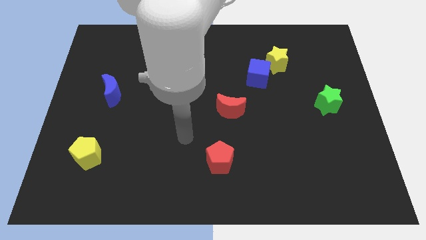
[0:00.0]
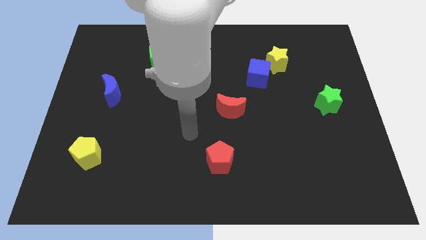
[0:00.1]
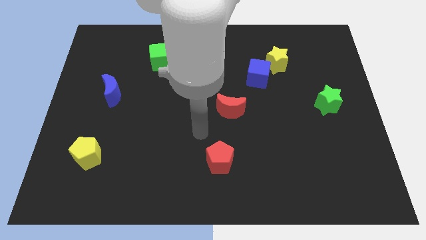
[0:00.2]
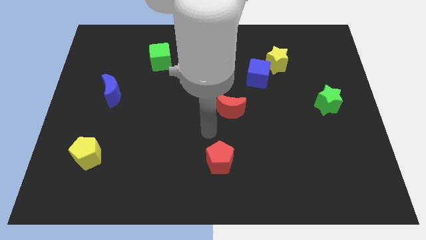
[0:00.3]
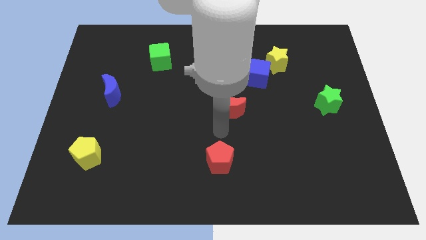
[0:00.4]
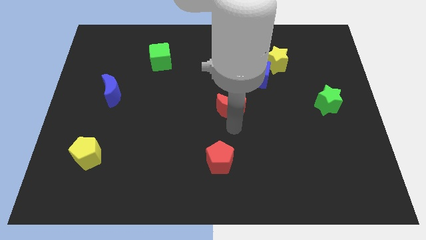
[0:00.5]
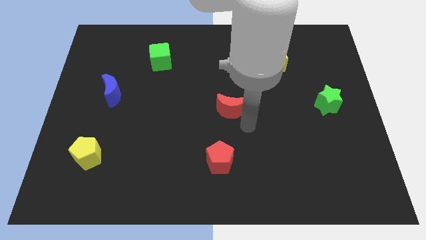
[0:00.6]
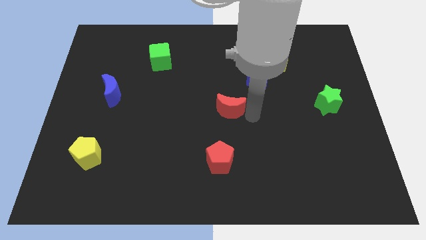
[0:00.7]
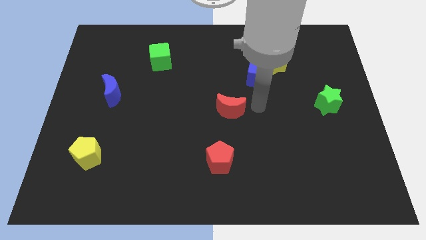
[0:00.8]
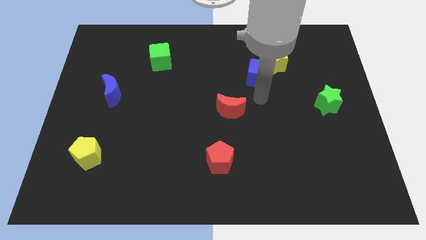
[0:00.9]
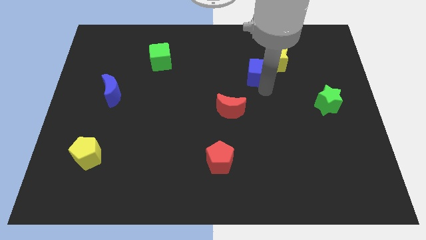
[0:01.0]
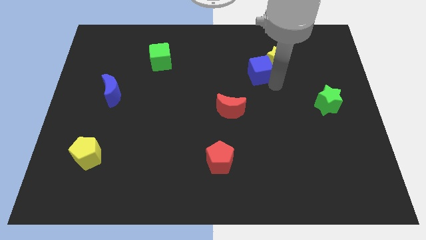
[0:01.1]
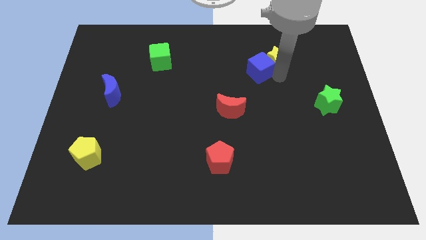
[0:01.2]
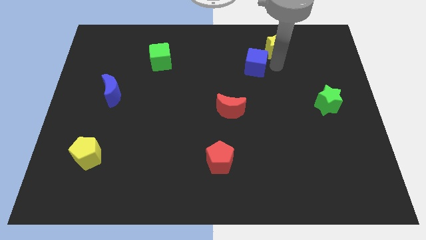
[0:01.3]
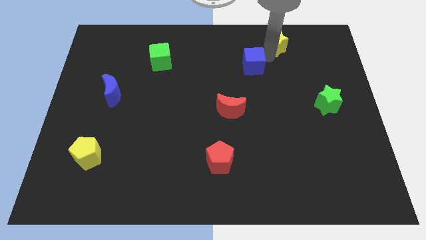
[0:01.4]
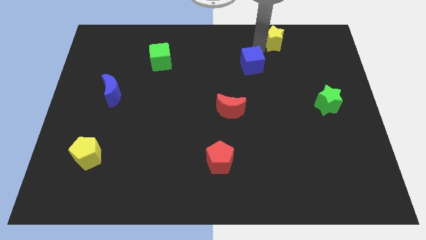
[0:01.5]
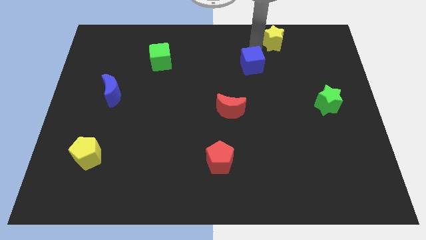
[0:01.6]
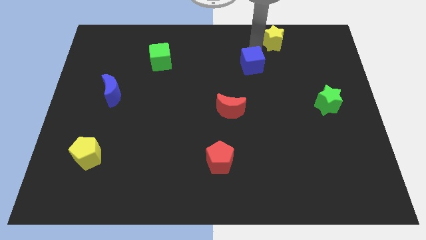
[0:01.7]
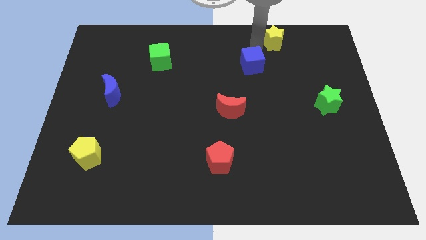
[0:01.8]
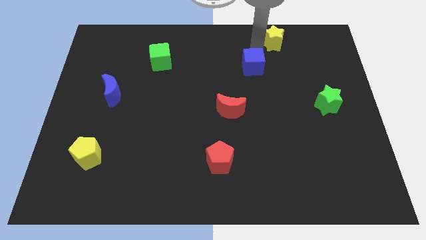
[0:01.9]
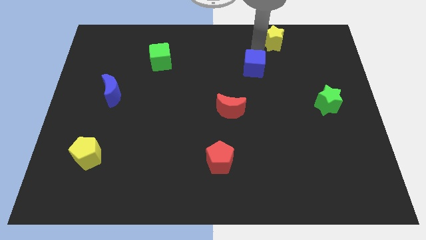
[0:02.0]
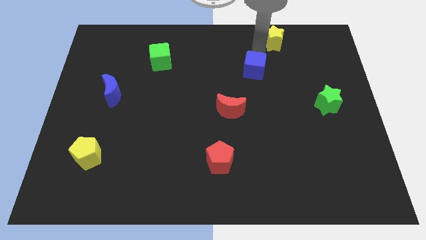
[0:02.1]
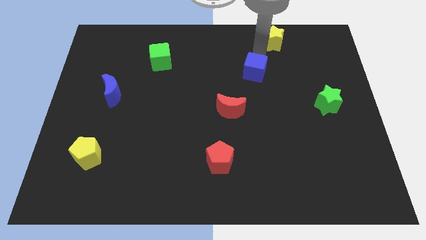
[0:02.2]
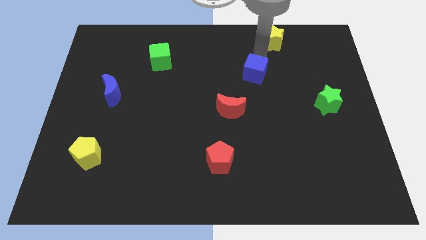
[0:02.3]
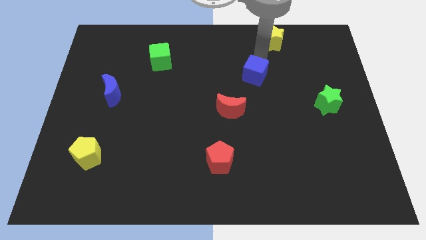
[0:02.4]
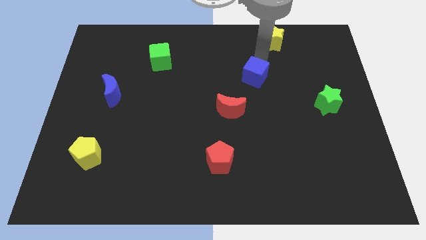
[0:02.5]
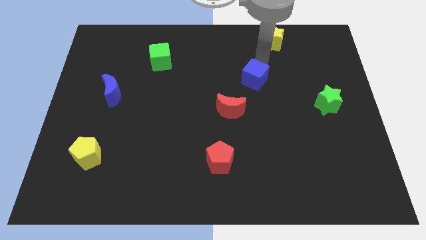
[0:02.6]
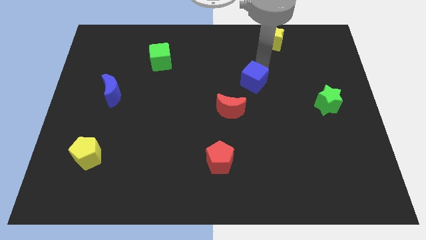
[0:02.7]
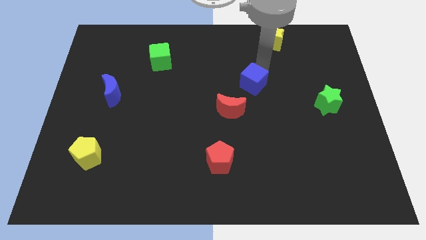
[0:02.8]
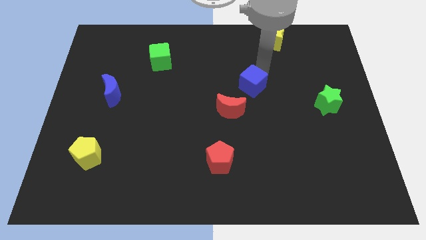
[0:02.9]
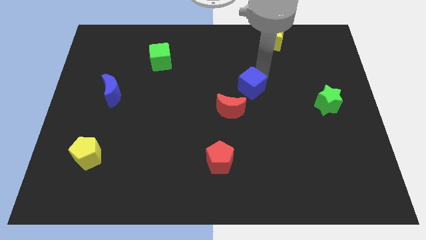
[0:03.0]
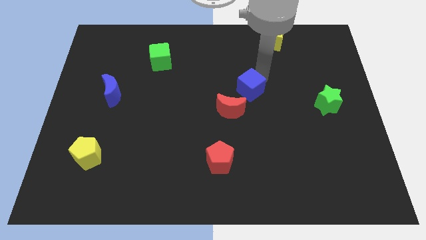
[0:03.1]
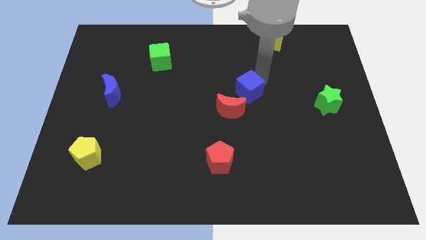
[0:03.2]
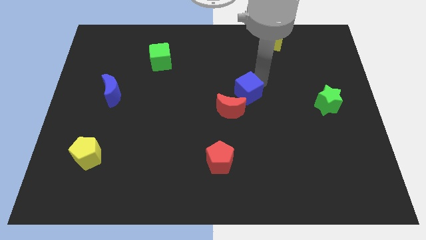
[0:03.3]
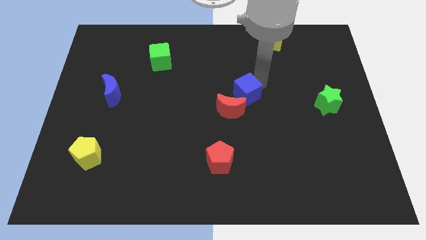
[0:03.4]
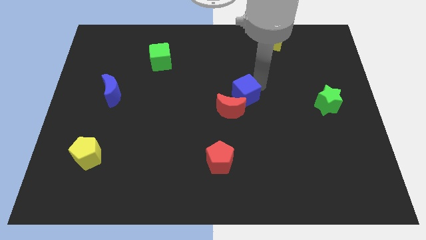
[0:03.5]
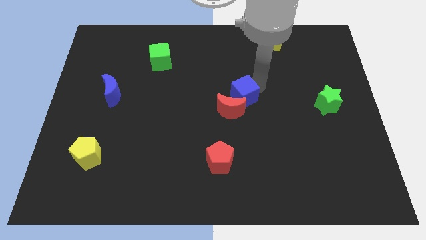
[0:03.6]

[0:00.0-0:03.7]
slide the blue cube diagonally downwards and to the left a little

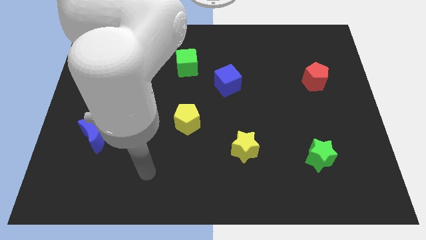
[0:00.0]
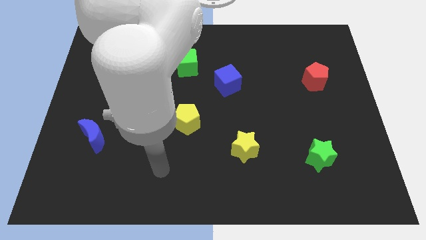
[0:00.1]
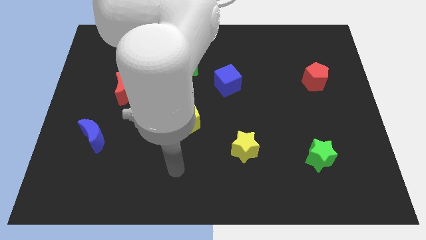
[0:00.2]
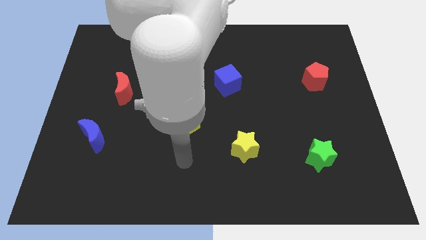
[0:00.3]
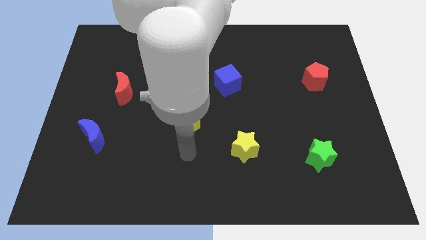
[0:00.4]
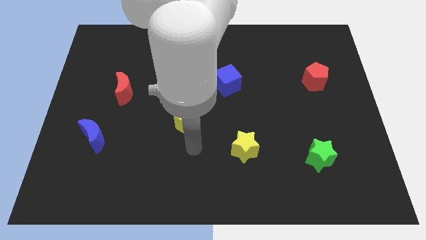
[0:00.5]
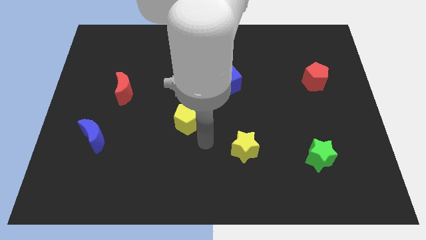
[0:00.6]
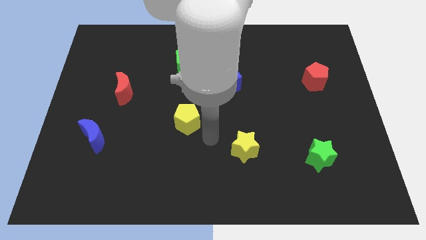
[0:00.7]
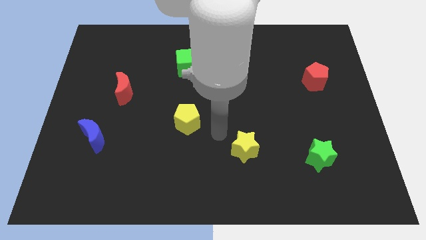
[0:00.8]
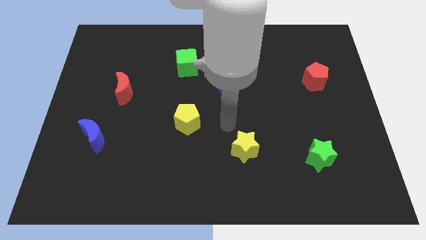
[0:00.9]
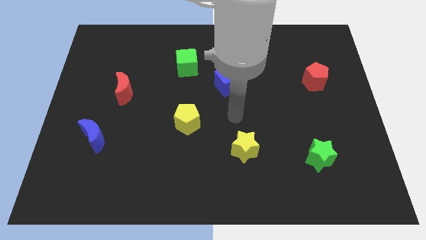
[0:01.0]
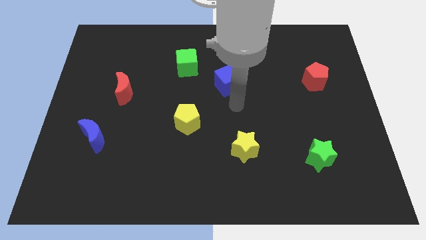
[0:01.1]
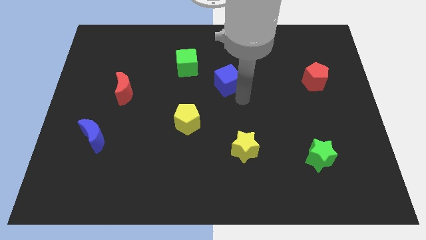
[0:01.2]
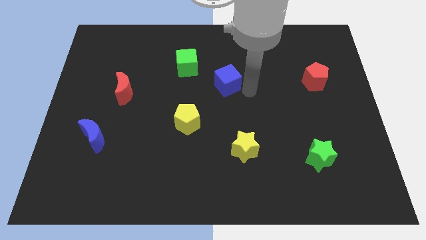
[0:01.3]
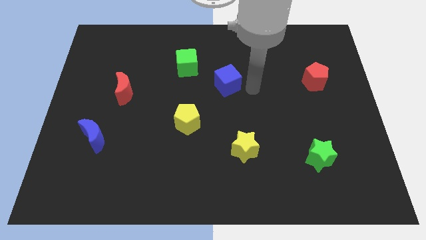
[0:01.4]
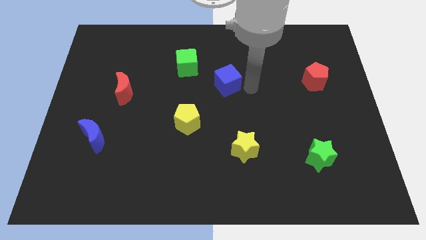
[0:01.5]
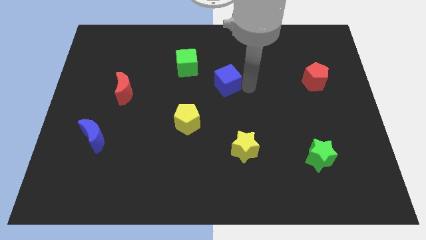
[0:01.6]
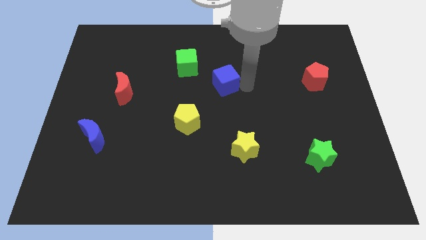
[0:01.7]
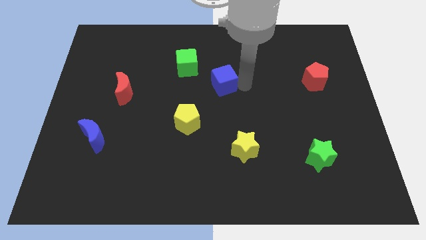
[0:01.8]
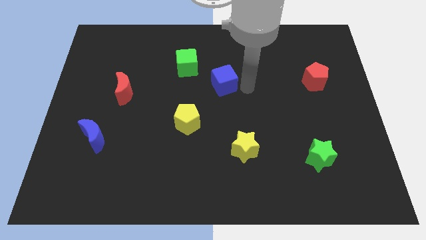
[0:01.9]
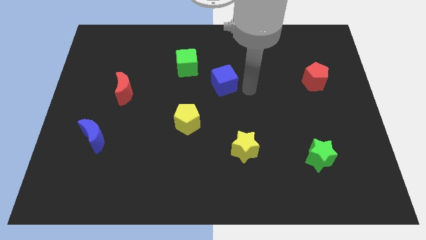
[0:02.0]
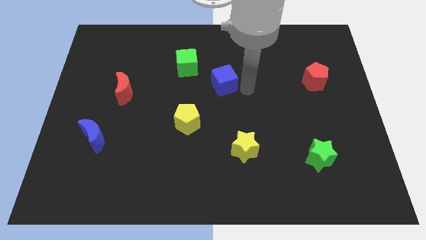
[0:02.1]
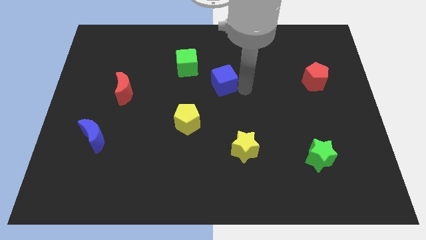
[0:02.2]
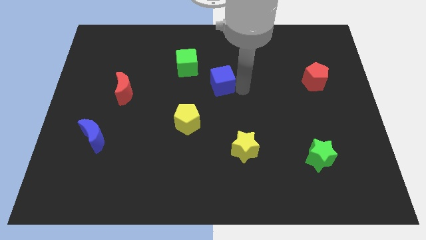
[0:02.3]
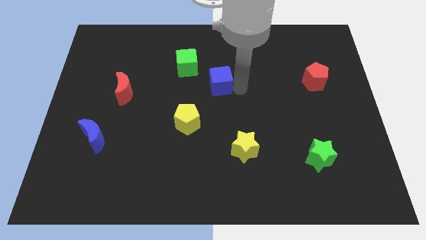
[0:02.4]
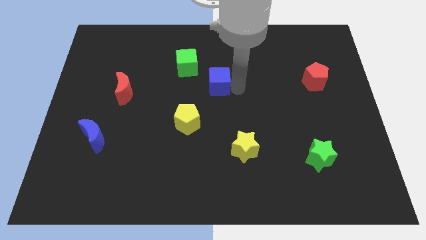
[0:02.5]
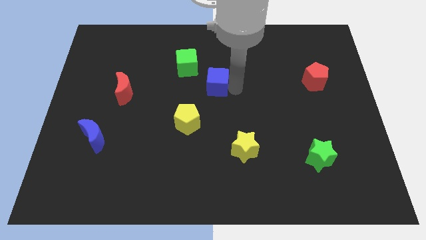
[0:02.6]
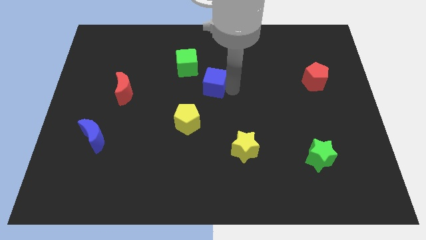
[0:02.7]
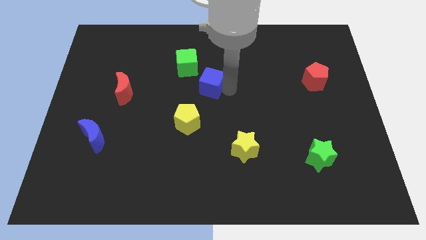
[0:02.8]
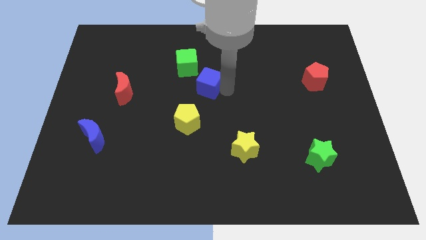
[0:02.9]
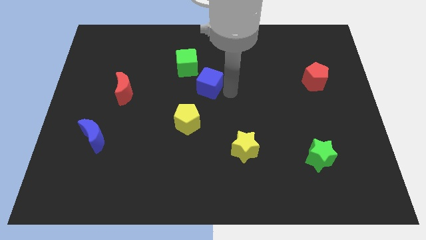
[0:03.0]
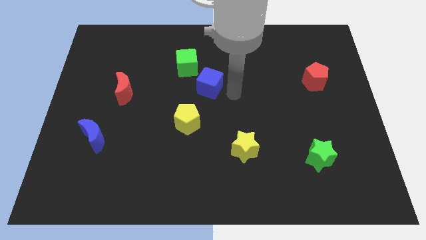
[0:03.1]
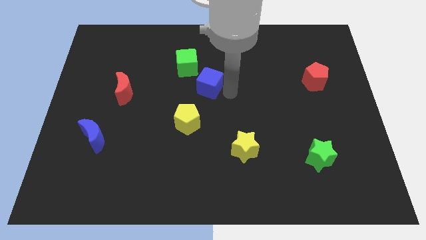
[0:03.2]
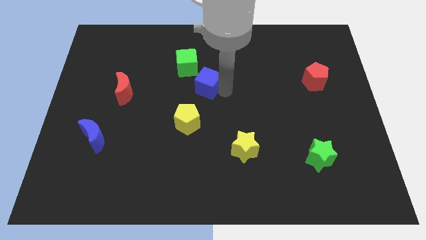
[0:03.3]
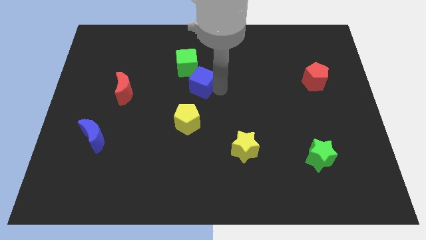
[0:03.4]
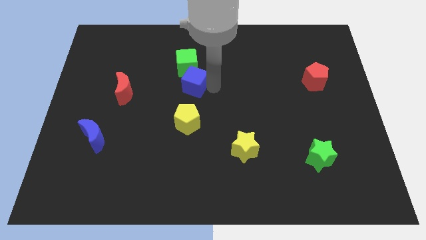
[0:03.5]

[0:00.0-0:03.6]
slightly move the blue cube left

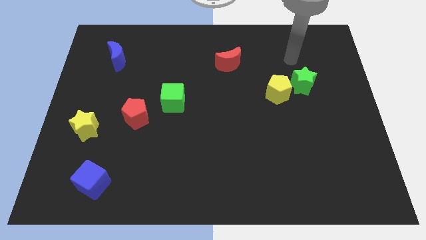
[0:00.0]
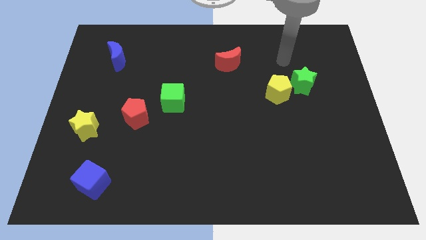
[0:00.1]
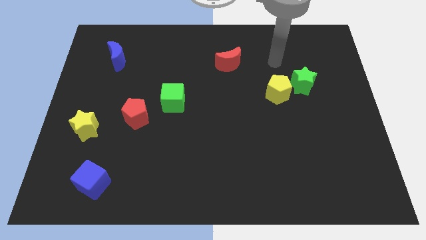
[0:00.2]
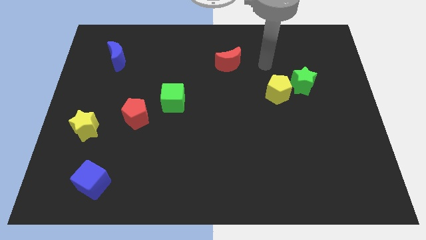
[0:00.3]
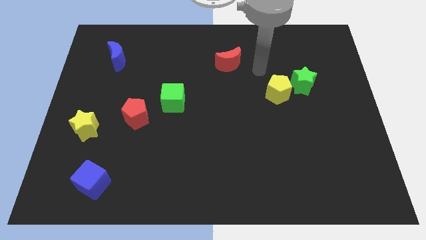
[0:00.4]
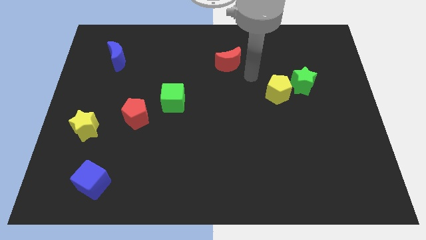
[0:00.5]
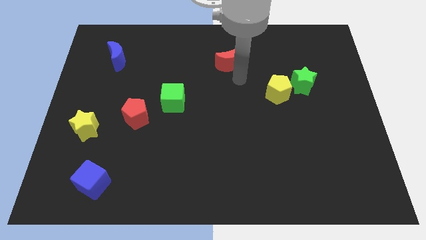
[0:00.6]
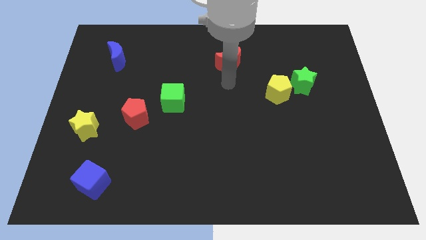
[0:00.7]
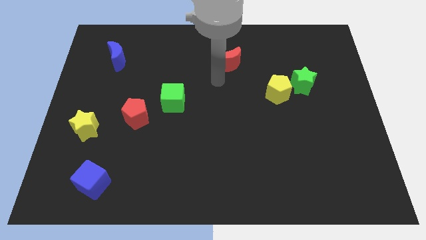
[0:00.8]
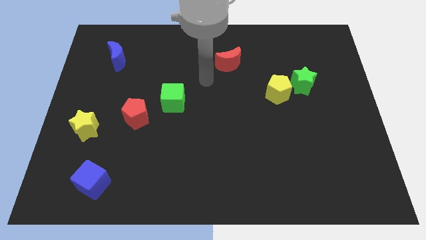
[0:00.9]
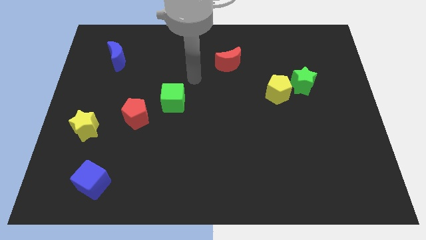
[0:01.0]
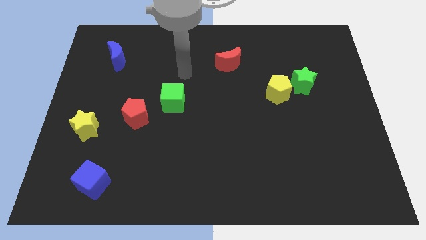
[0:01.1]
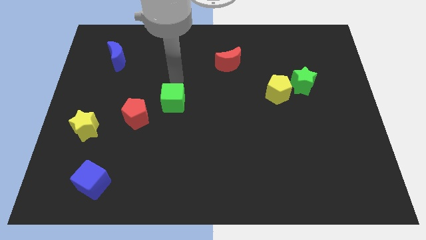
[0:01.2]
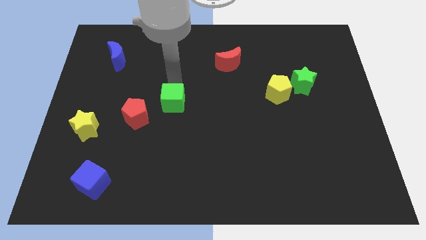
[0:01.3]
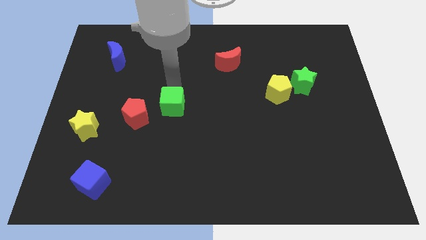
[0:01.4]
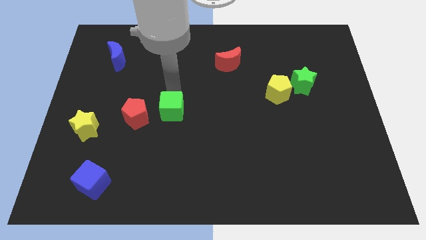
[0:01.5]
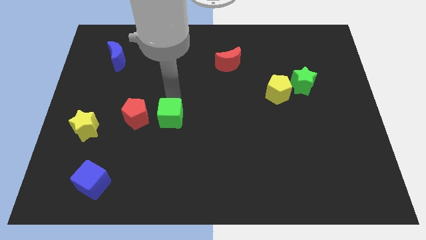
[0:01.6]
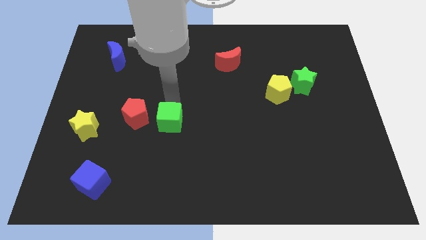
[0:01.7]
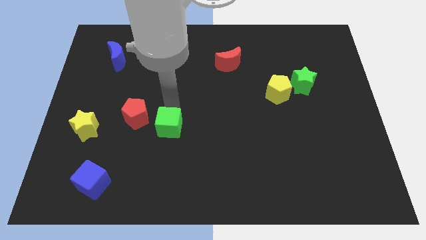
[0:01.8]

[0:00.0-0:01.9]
slightly push the green cube downwards
